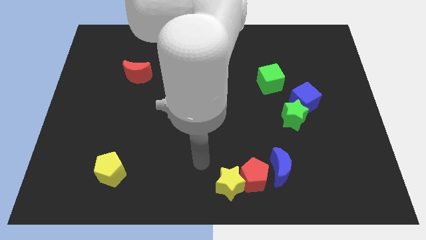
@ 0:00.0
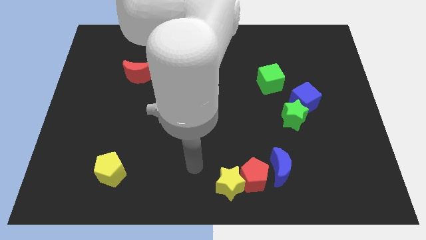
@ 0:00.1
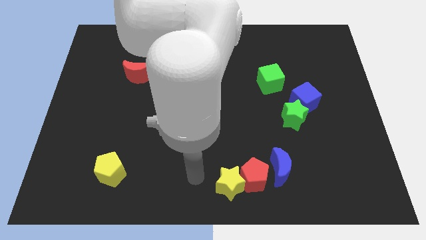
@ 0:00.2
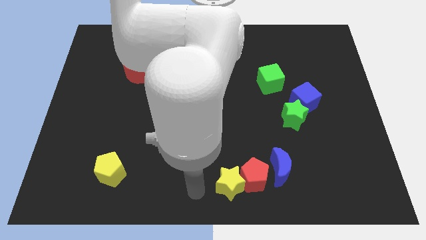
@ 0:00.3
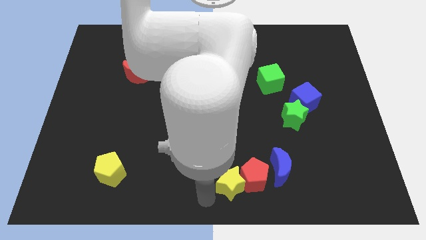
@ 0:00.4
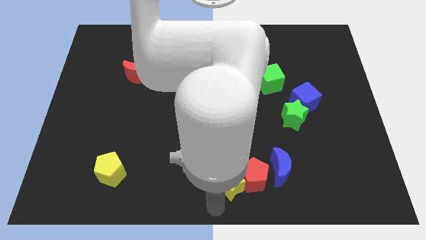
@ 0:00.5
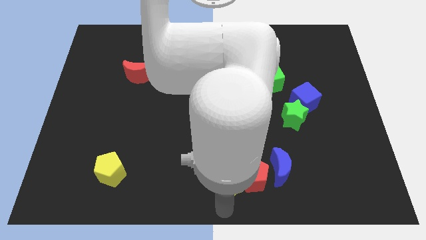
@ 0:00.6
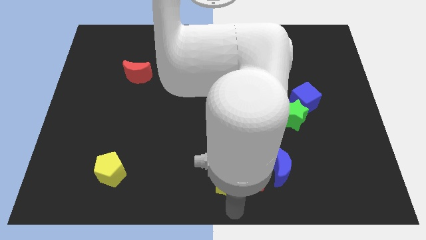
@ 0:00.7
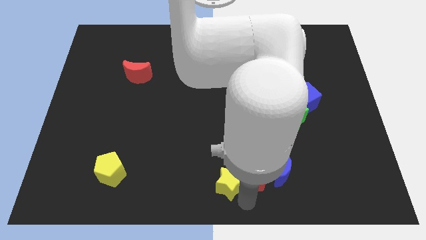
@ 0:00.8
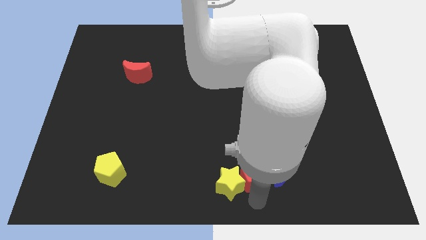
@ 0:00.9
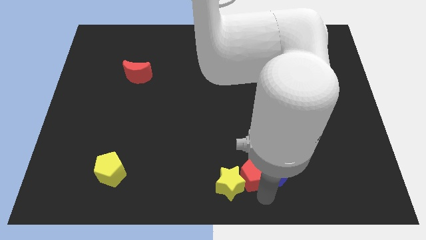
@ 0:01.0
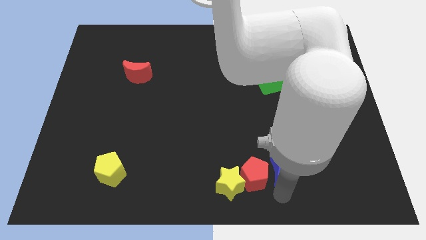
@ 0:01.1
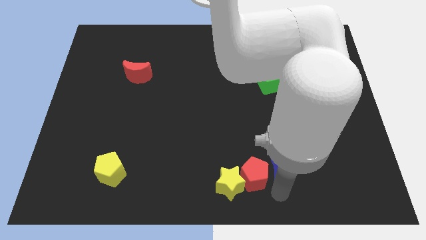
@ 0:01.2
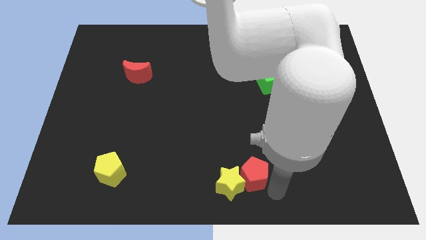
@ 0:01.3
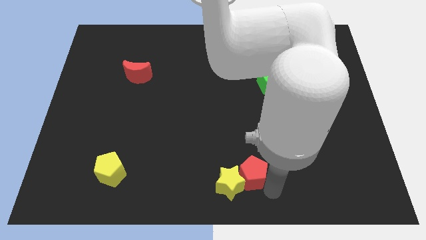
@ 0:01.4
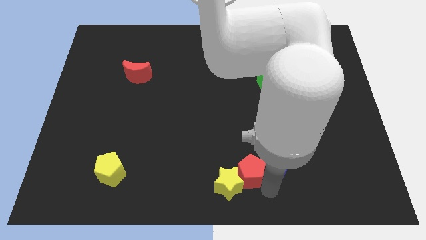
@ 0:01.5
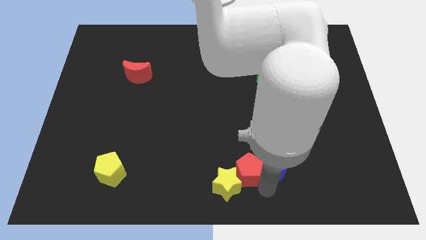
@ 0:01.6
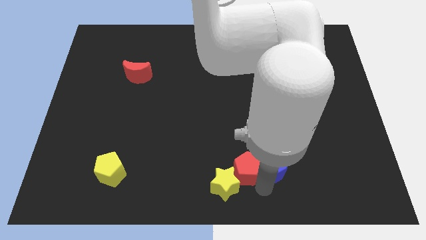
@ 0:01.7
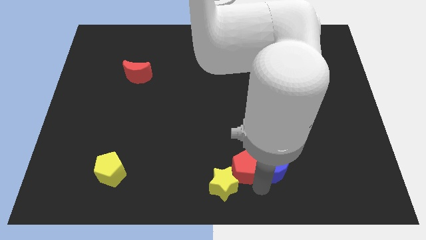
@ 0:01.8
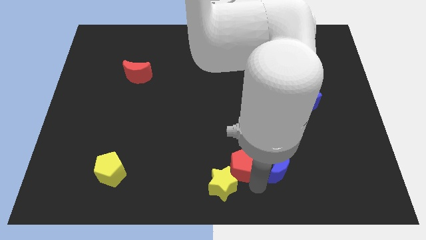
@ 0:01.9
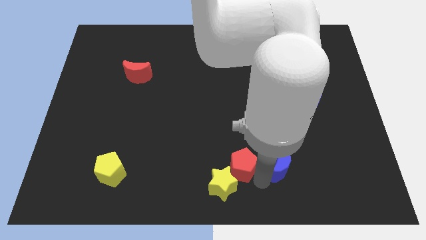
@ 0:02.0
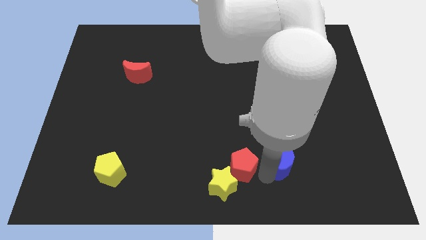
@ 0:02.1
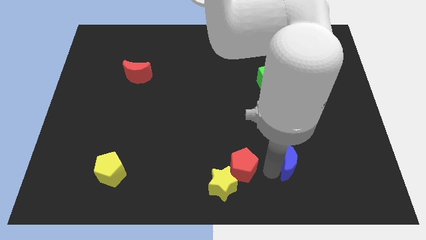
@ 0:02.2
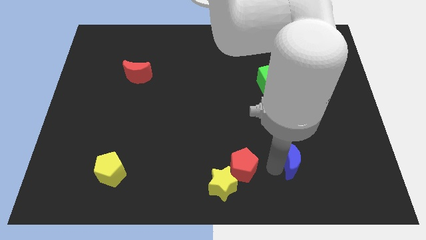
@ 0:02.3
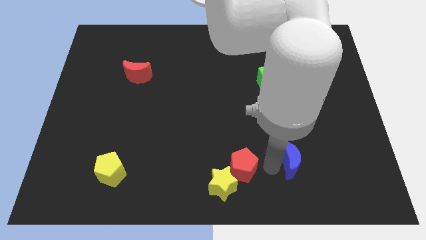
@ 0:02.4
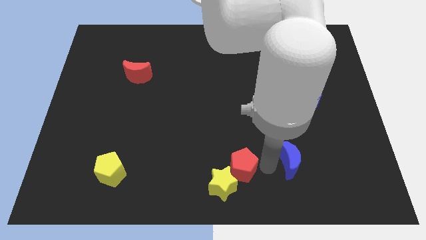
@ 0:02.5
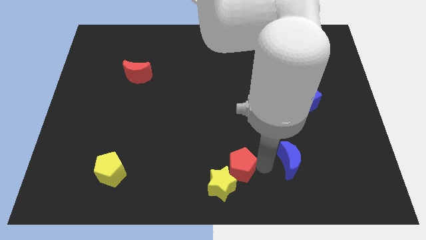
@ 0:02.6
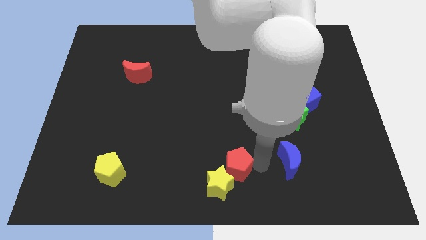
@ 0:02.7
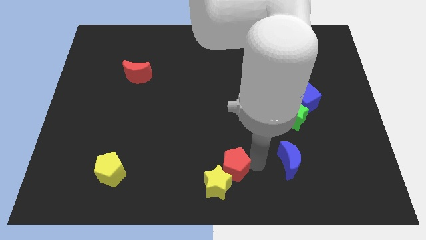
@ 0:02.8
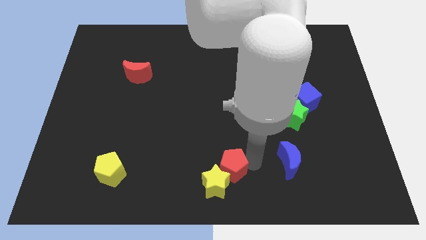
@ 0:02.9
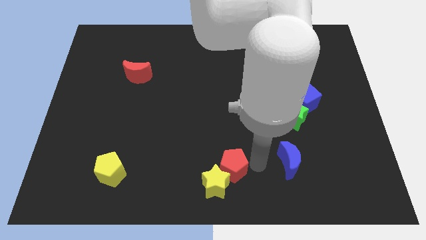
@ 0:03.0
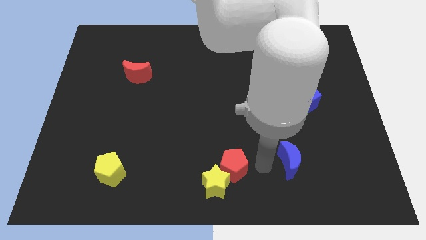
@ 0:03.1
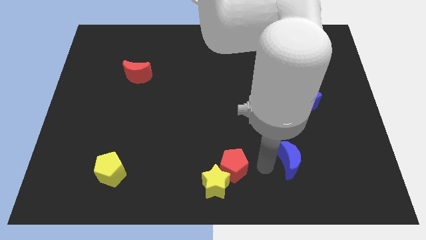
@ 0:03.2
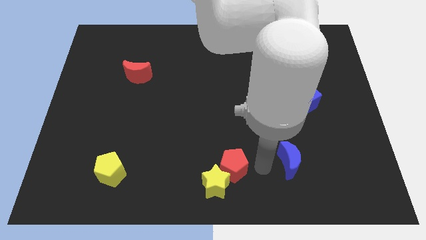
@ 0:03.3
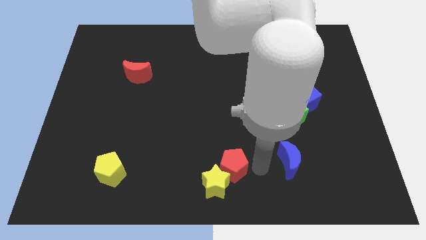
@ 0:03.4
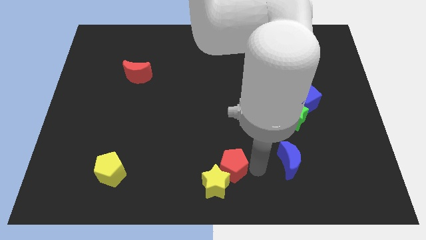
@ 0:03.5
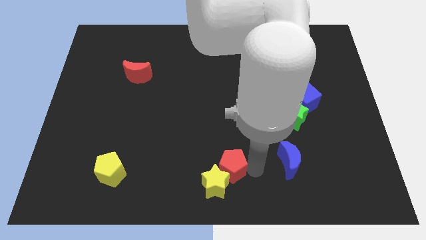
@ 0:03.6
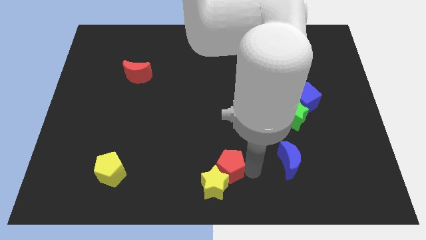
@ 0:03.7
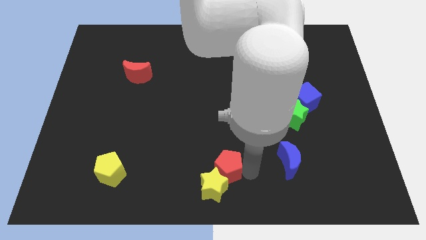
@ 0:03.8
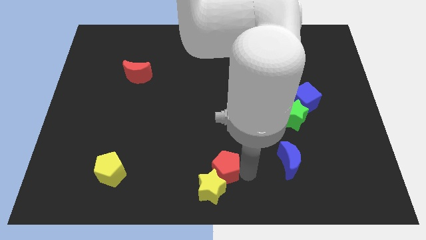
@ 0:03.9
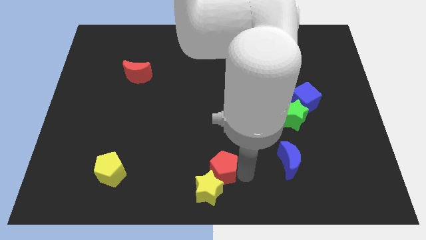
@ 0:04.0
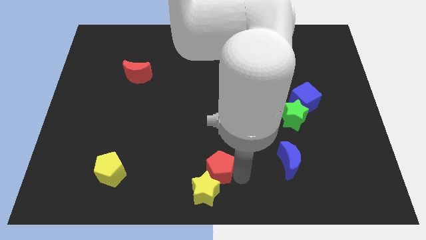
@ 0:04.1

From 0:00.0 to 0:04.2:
push the red pentagon to the left a little bit

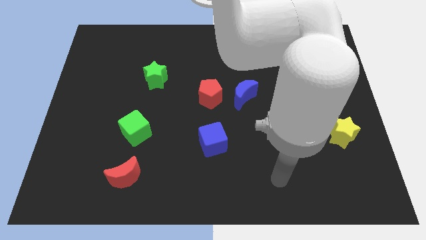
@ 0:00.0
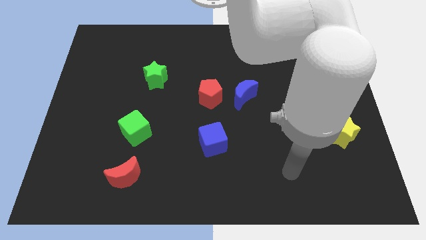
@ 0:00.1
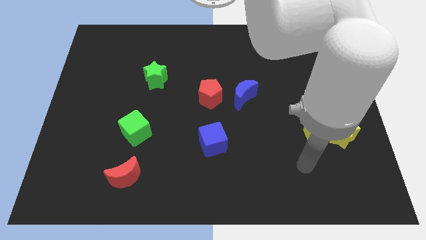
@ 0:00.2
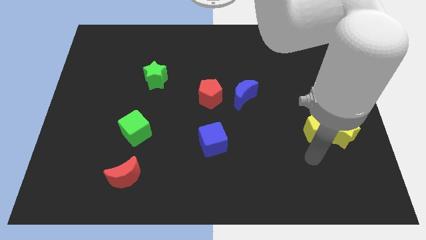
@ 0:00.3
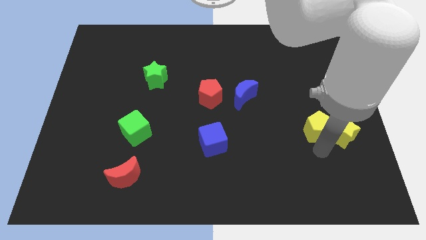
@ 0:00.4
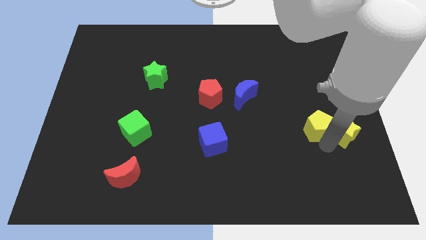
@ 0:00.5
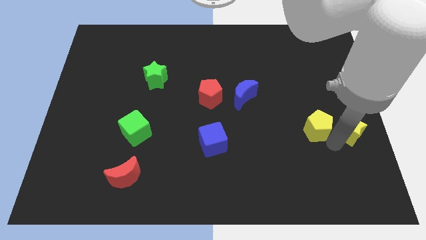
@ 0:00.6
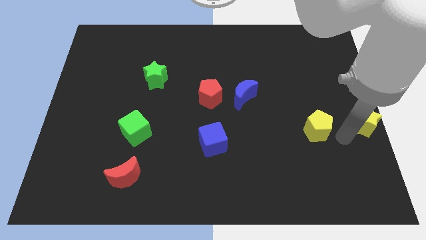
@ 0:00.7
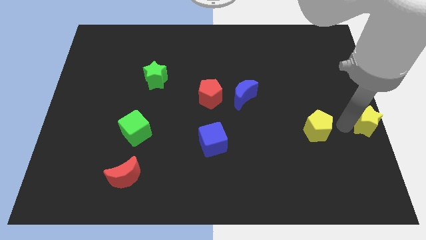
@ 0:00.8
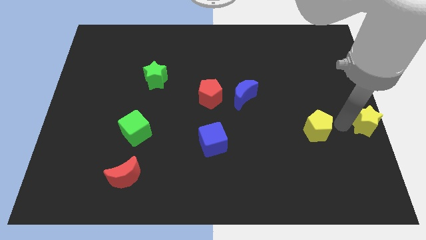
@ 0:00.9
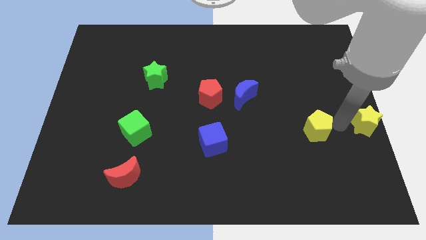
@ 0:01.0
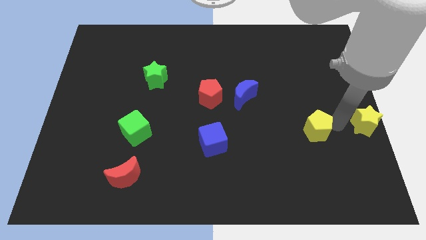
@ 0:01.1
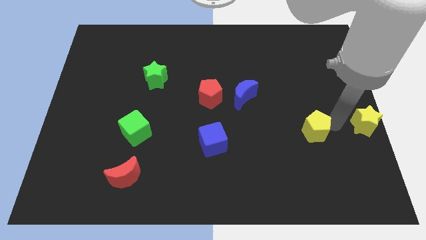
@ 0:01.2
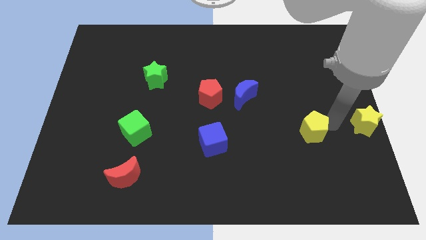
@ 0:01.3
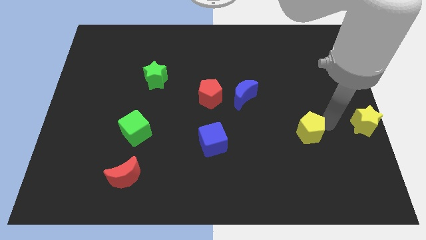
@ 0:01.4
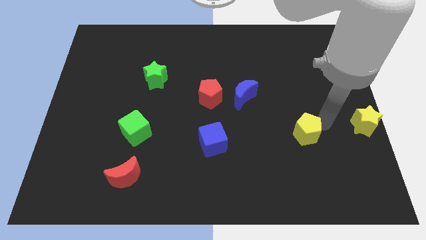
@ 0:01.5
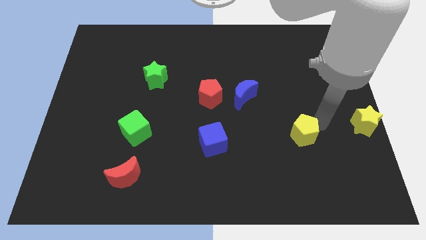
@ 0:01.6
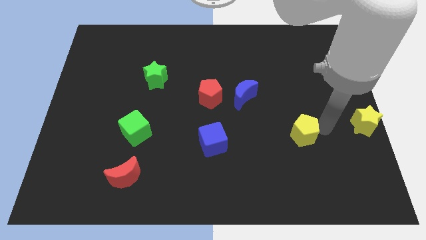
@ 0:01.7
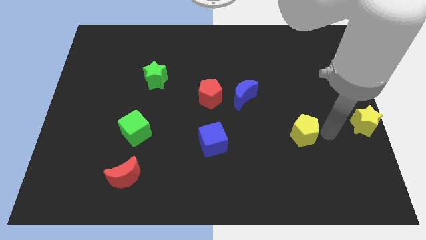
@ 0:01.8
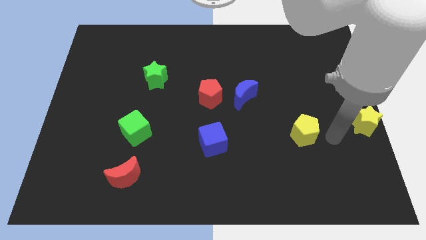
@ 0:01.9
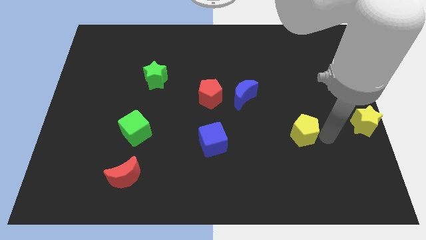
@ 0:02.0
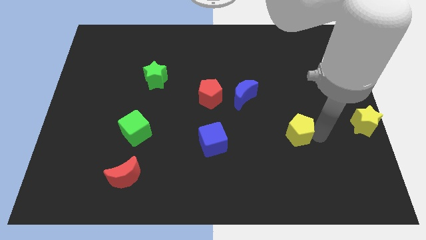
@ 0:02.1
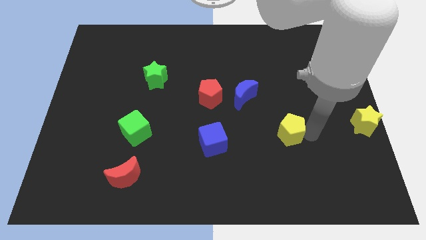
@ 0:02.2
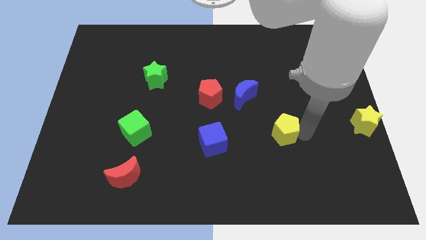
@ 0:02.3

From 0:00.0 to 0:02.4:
slightly move the yellow pentagon to the left

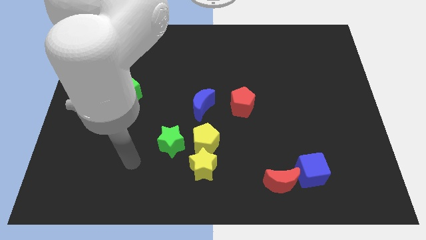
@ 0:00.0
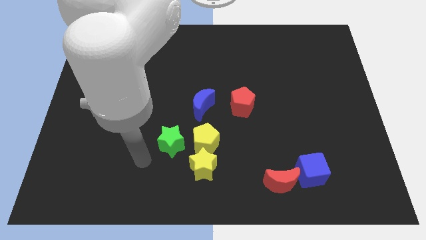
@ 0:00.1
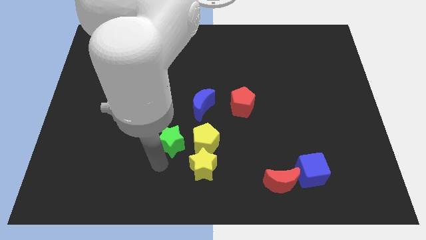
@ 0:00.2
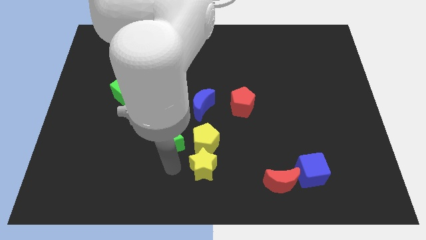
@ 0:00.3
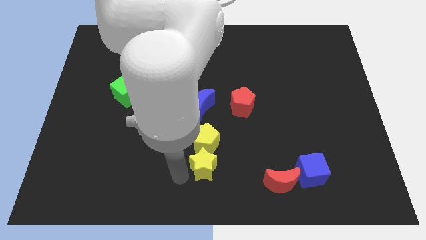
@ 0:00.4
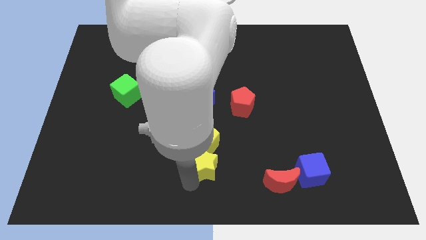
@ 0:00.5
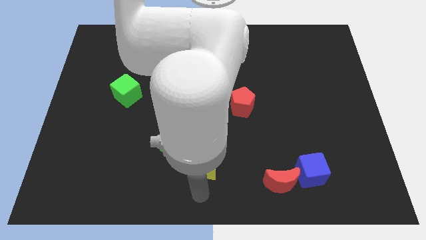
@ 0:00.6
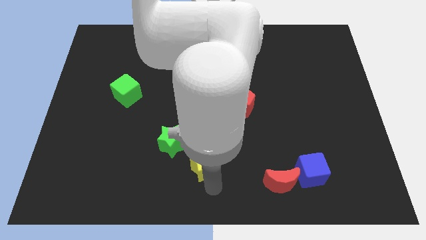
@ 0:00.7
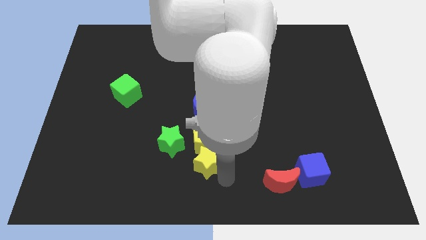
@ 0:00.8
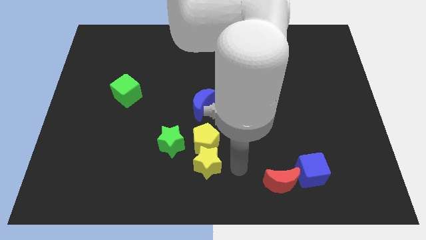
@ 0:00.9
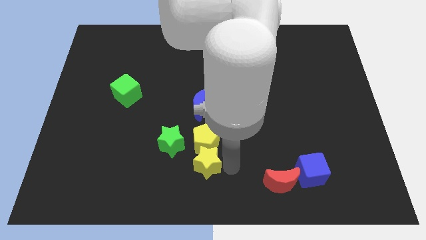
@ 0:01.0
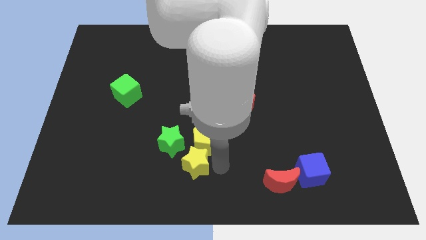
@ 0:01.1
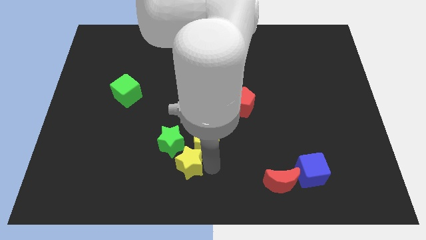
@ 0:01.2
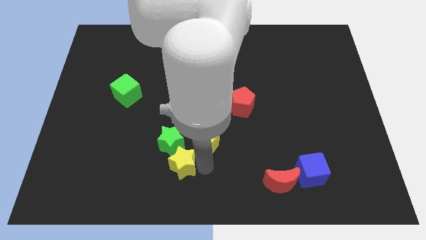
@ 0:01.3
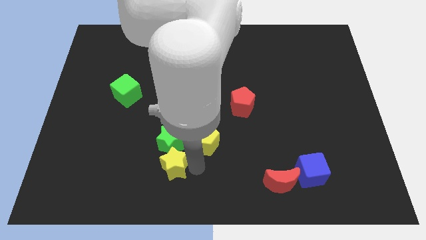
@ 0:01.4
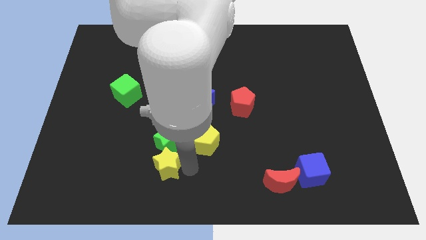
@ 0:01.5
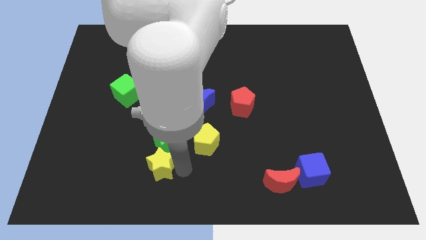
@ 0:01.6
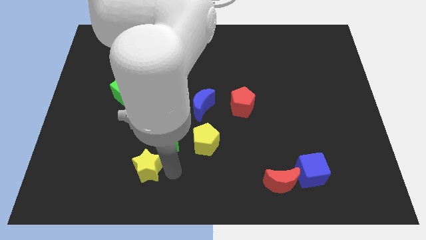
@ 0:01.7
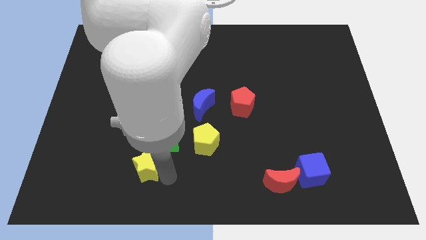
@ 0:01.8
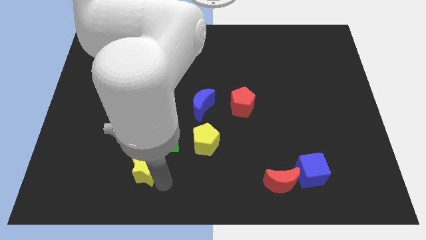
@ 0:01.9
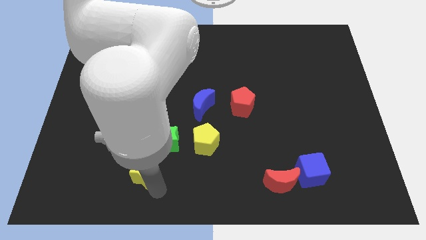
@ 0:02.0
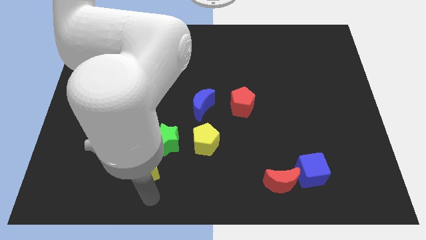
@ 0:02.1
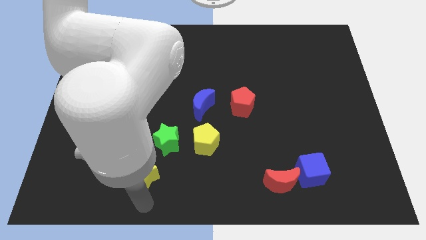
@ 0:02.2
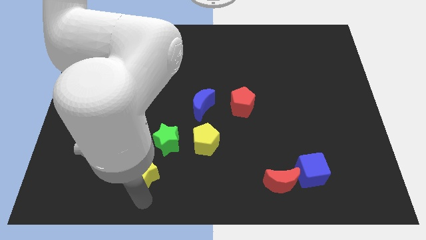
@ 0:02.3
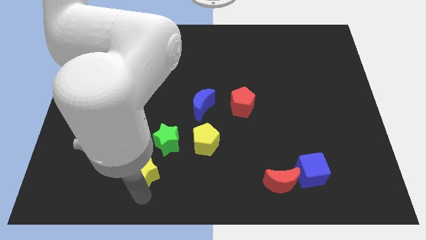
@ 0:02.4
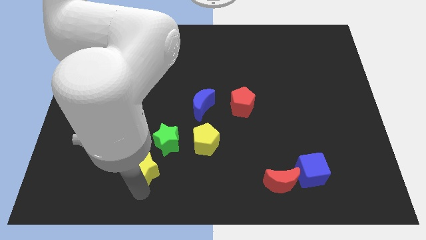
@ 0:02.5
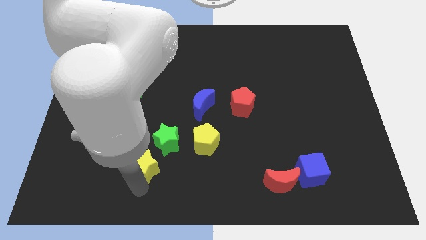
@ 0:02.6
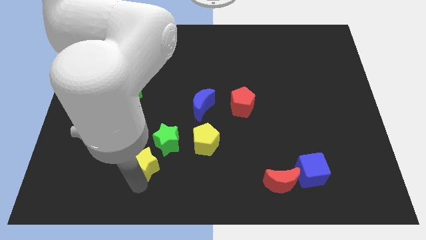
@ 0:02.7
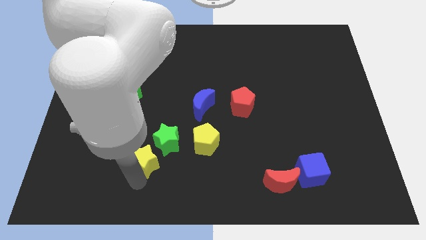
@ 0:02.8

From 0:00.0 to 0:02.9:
move the yellow star a little diagonally up and left
